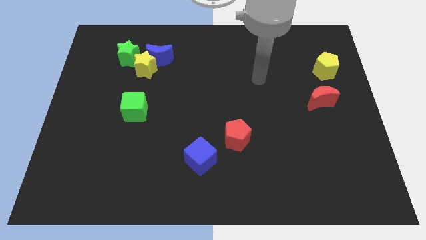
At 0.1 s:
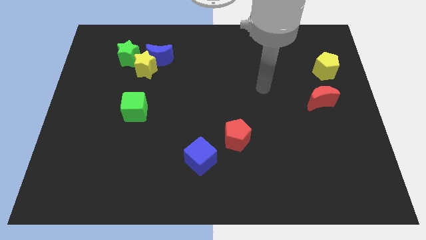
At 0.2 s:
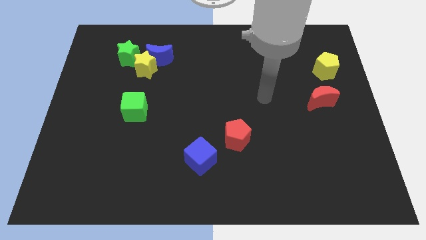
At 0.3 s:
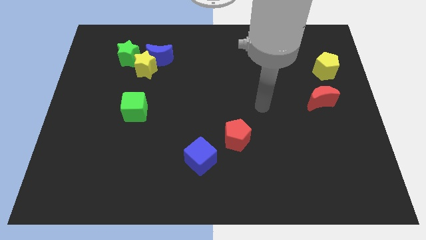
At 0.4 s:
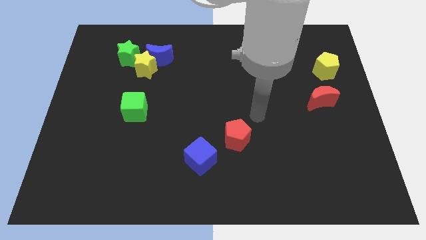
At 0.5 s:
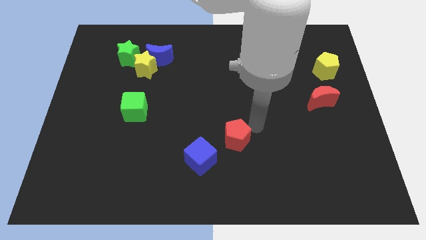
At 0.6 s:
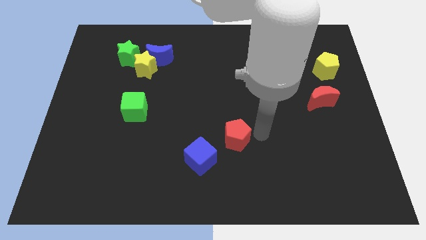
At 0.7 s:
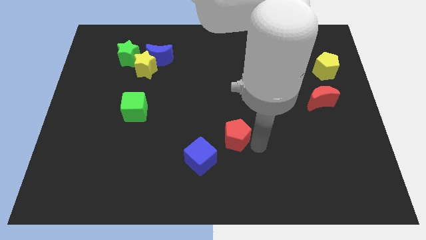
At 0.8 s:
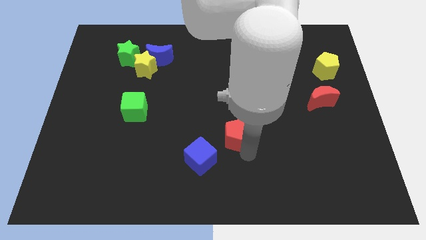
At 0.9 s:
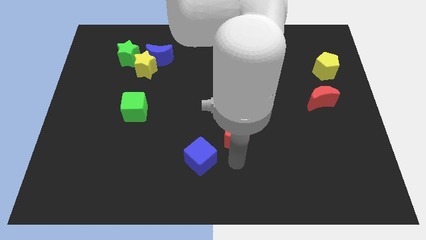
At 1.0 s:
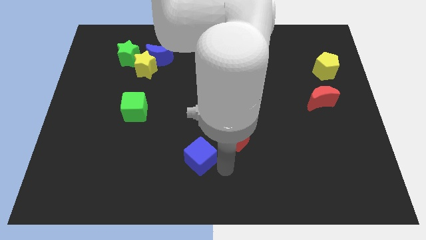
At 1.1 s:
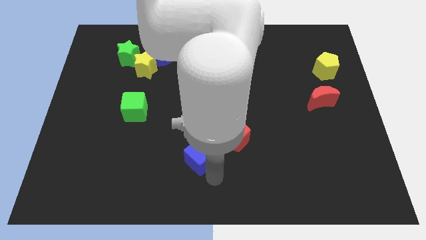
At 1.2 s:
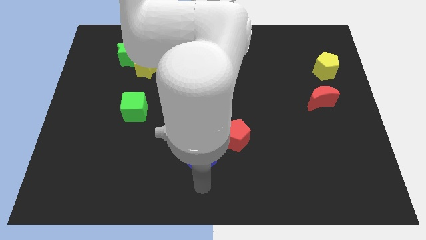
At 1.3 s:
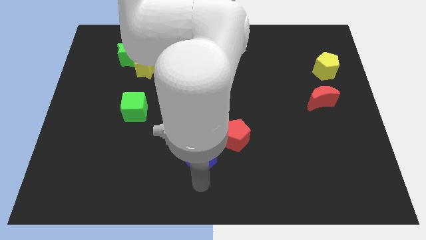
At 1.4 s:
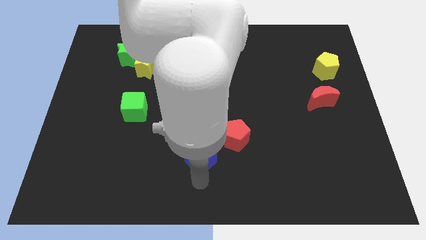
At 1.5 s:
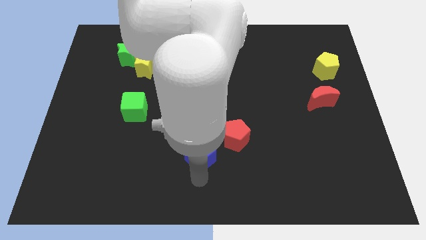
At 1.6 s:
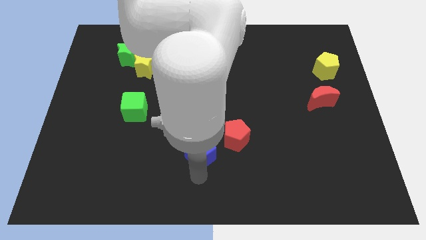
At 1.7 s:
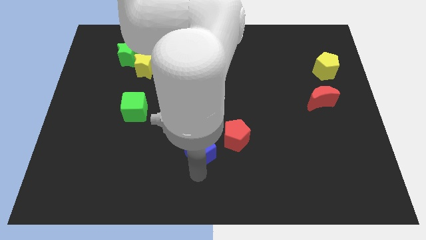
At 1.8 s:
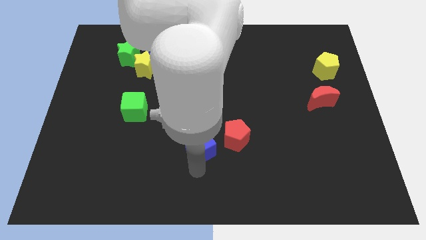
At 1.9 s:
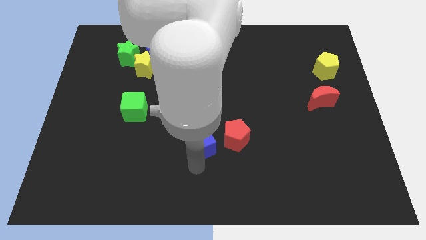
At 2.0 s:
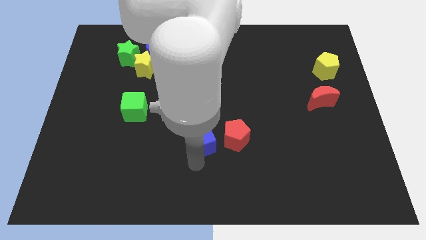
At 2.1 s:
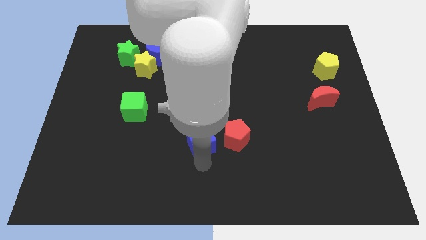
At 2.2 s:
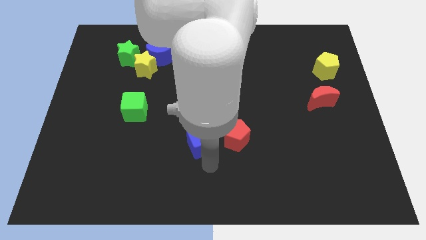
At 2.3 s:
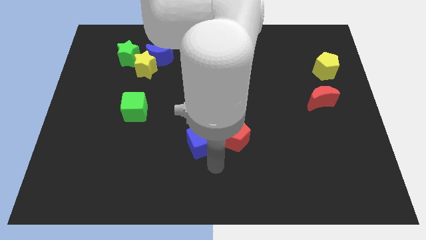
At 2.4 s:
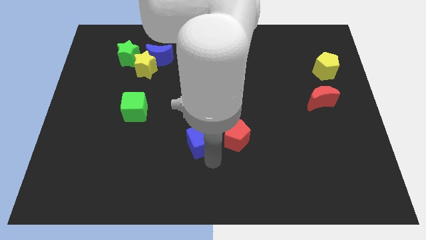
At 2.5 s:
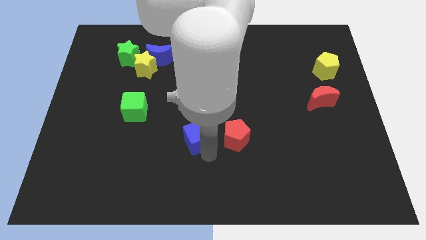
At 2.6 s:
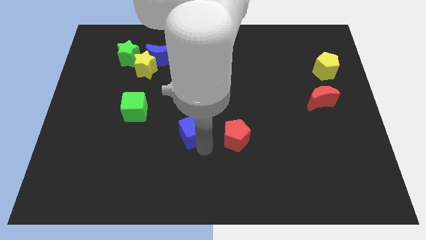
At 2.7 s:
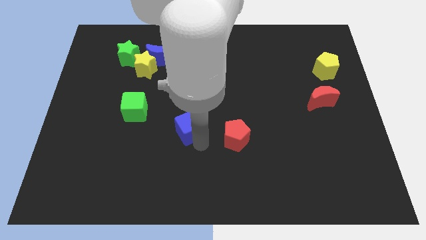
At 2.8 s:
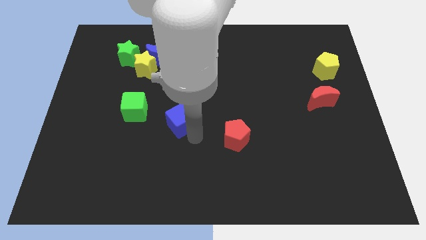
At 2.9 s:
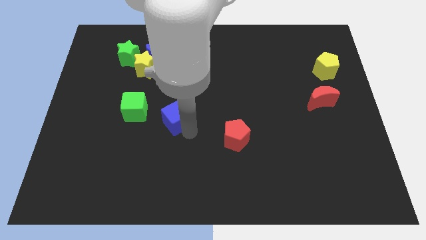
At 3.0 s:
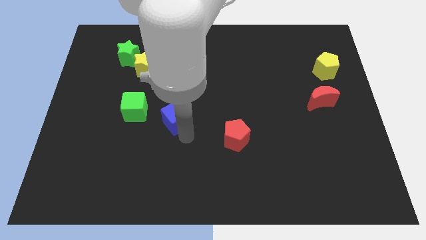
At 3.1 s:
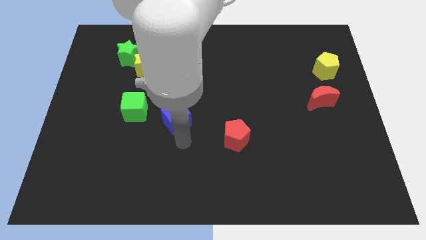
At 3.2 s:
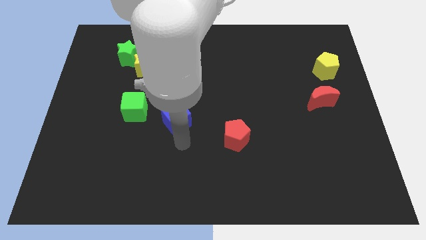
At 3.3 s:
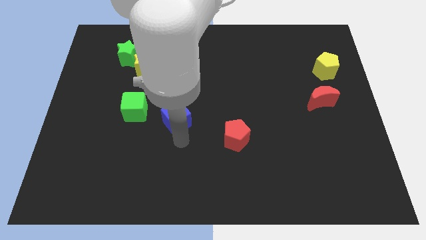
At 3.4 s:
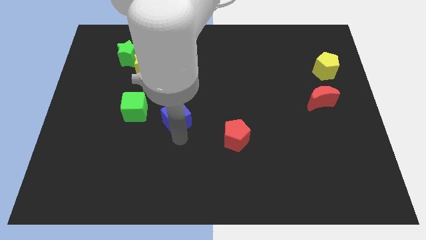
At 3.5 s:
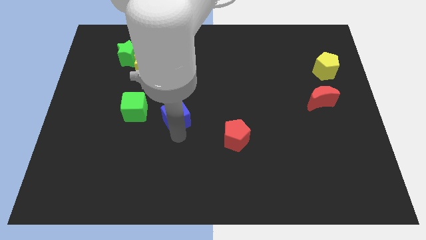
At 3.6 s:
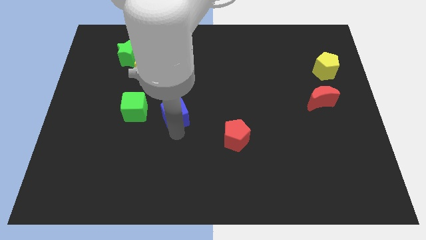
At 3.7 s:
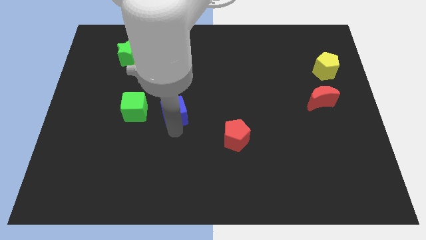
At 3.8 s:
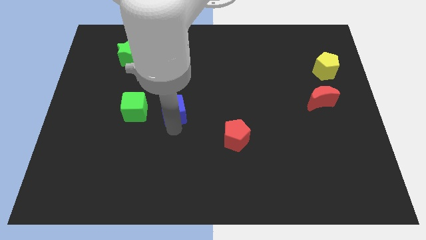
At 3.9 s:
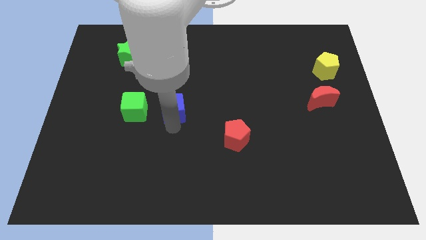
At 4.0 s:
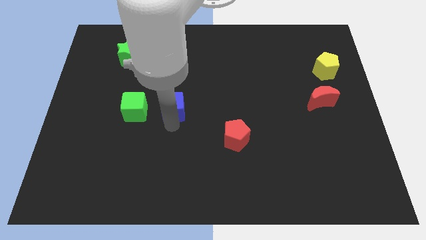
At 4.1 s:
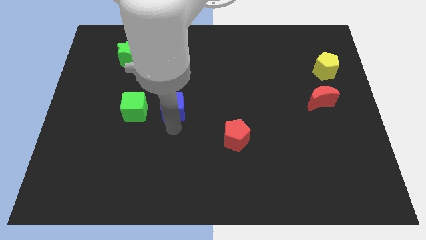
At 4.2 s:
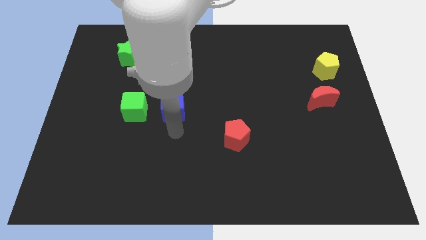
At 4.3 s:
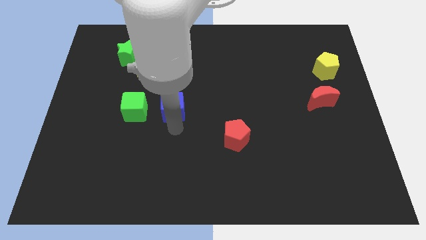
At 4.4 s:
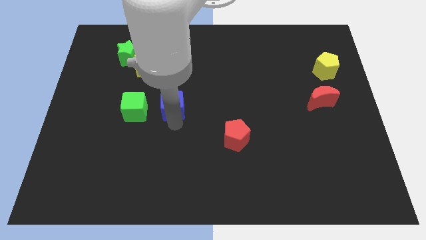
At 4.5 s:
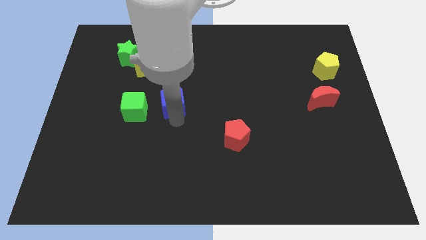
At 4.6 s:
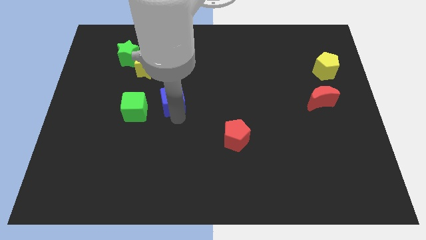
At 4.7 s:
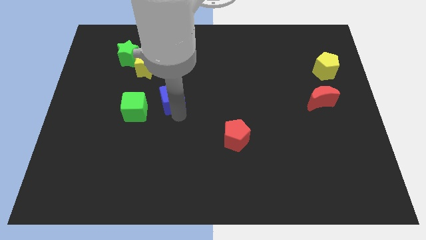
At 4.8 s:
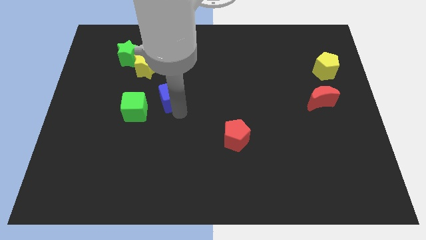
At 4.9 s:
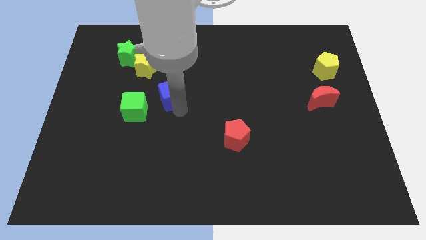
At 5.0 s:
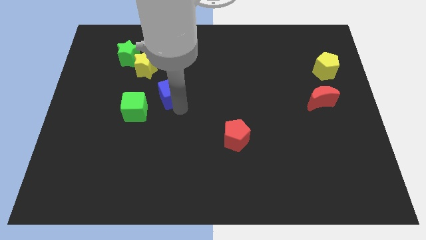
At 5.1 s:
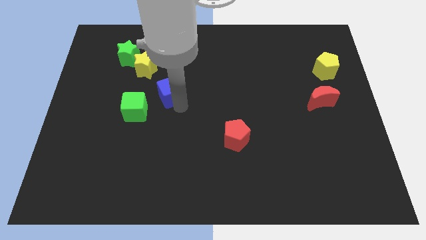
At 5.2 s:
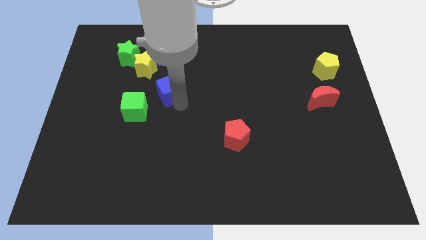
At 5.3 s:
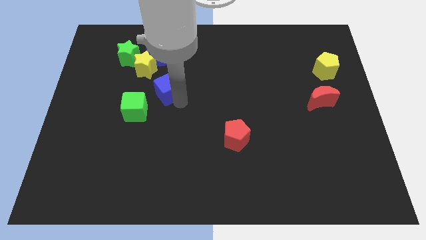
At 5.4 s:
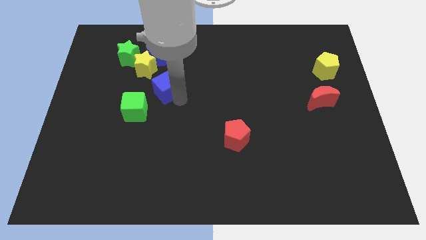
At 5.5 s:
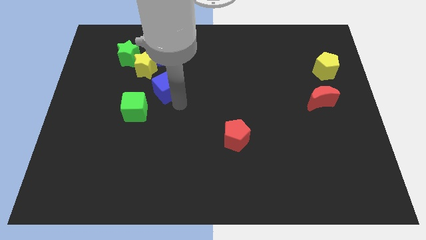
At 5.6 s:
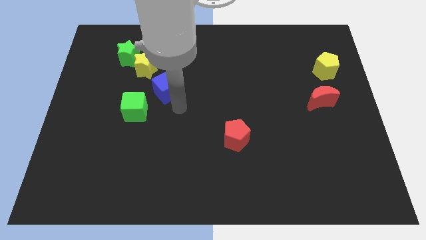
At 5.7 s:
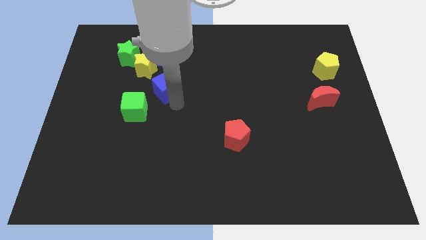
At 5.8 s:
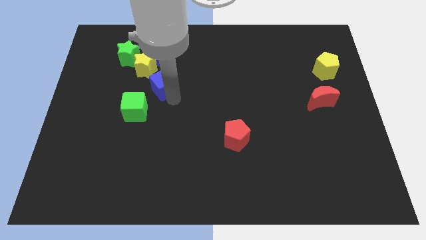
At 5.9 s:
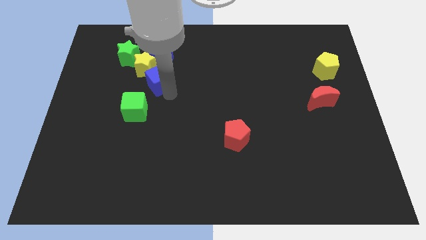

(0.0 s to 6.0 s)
put the blue cube next to the yellow star

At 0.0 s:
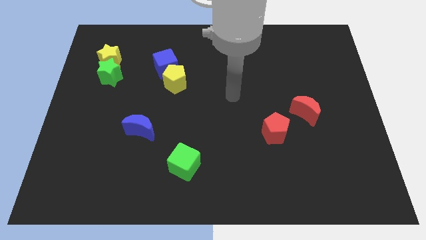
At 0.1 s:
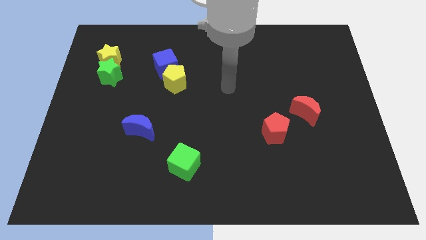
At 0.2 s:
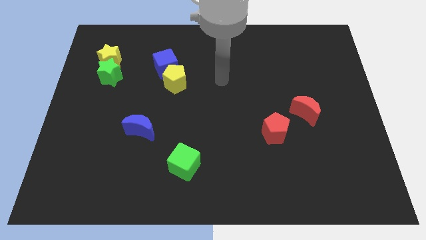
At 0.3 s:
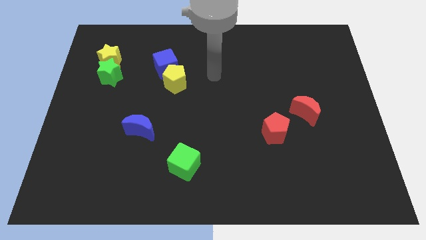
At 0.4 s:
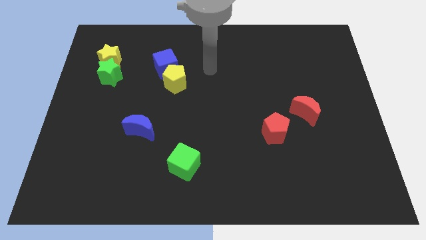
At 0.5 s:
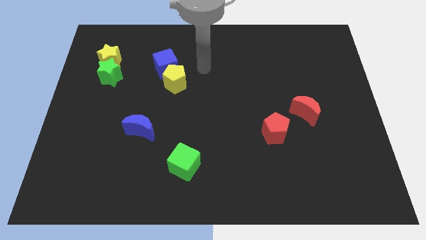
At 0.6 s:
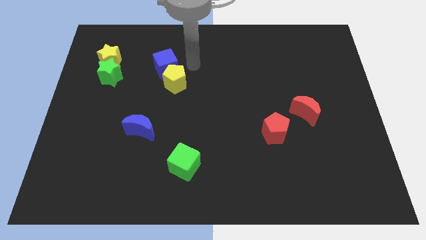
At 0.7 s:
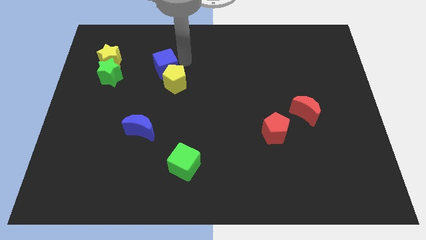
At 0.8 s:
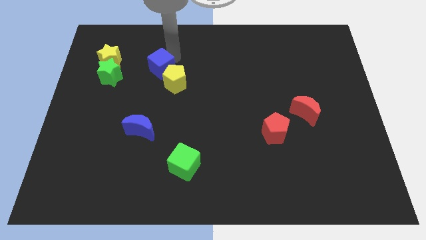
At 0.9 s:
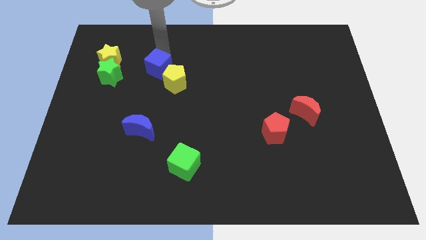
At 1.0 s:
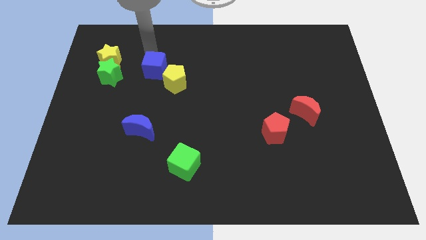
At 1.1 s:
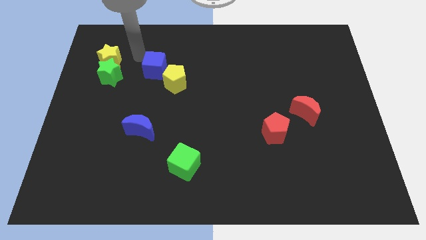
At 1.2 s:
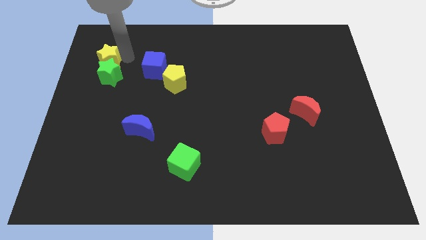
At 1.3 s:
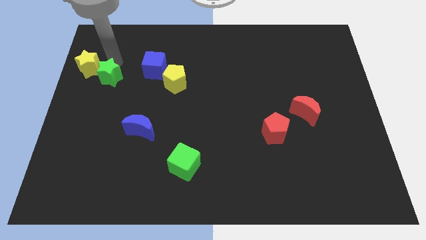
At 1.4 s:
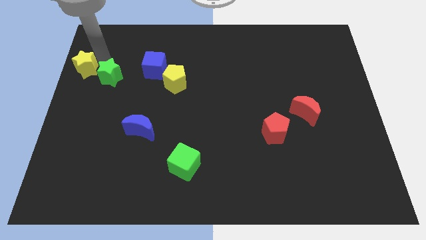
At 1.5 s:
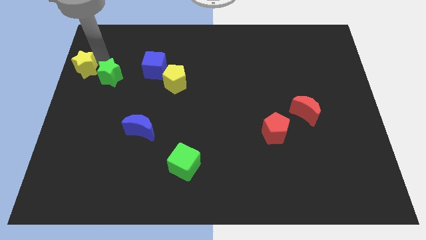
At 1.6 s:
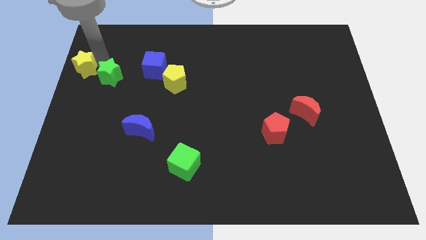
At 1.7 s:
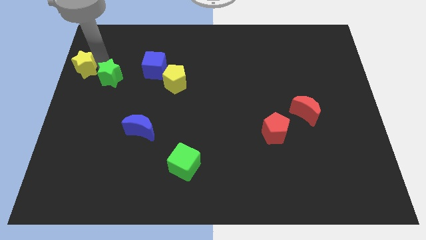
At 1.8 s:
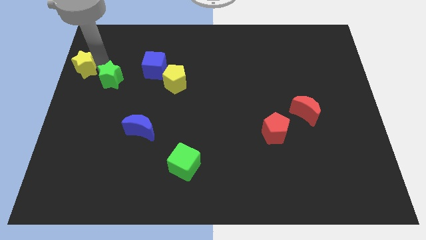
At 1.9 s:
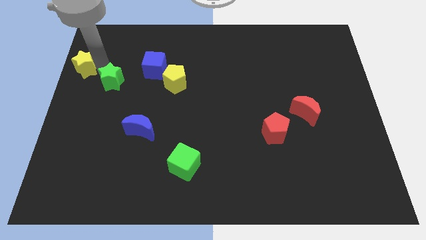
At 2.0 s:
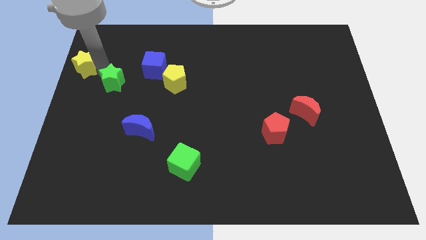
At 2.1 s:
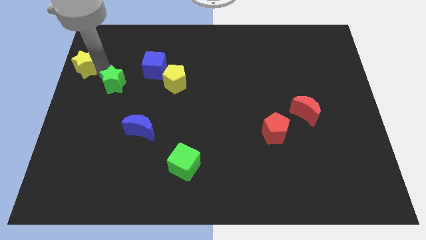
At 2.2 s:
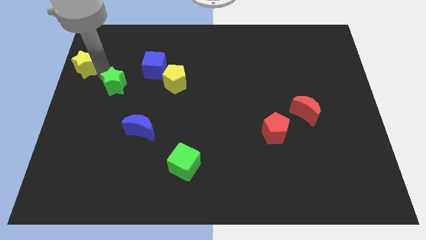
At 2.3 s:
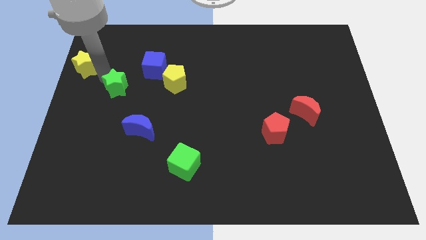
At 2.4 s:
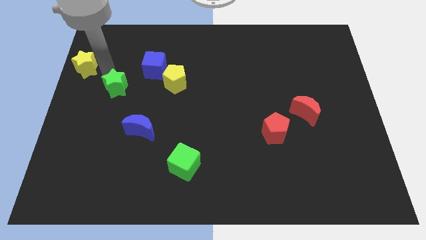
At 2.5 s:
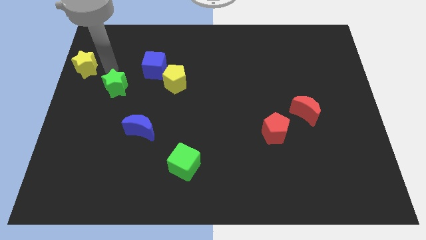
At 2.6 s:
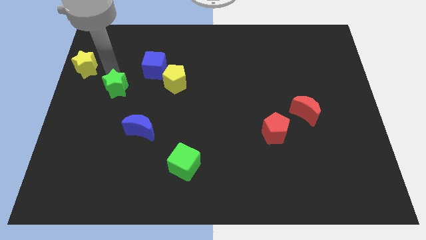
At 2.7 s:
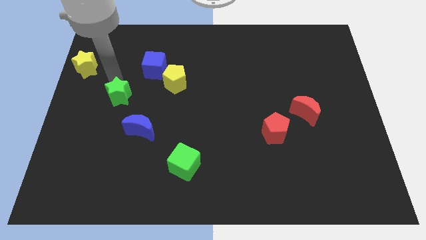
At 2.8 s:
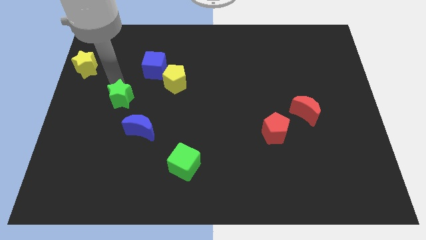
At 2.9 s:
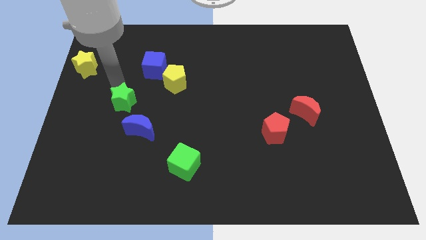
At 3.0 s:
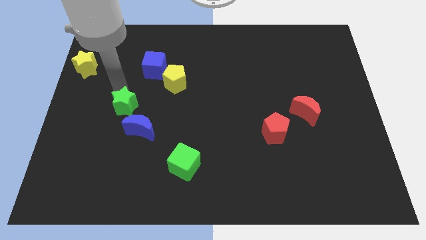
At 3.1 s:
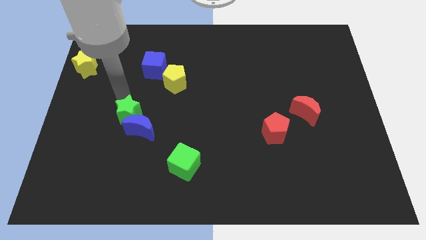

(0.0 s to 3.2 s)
slide the green star to the blue moon
